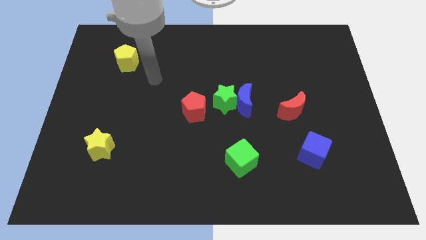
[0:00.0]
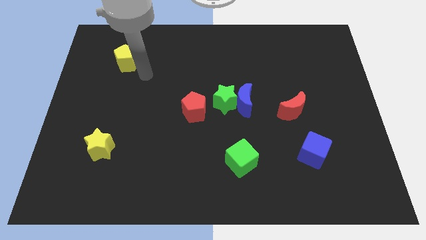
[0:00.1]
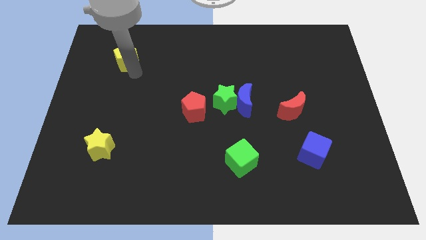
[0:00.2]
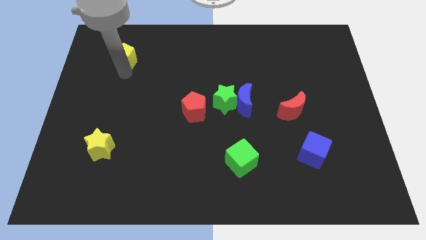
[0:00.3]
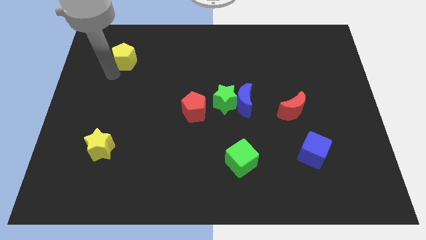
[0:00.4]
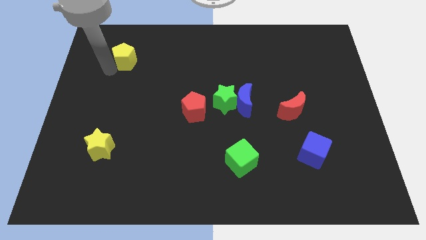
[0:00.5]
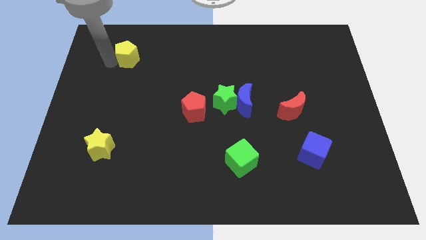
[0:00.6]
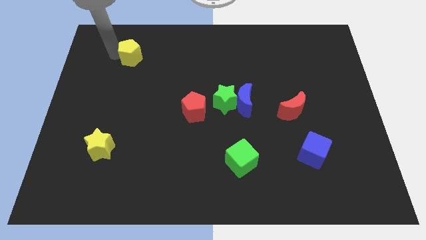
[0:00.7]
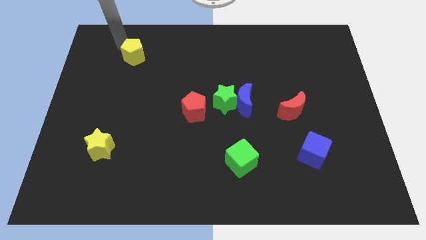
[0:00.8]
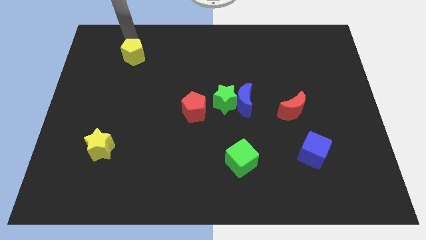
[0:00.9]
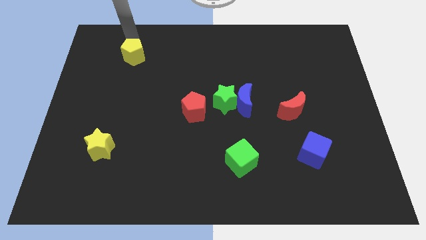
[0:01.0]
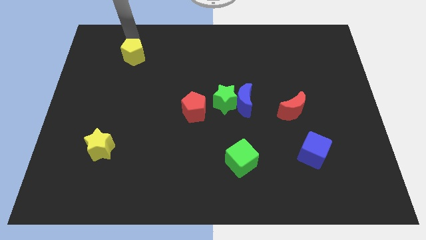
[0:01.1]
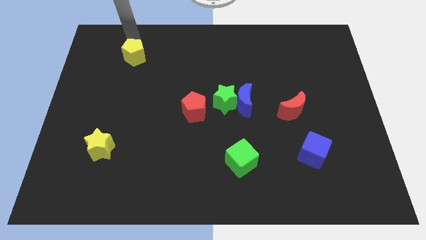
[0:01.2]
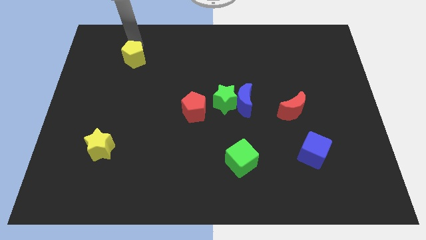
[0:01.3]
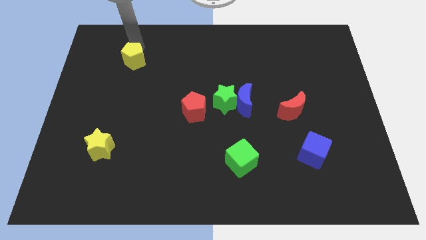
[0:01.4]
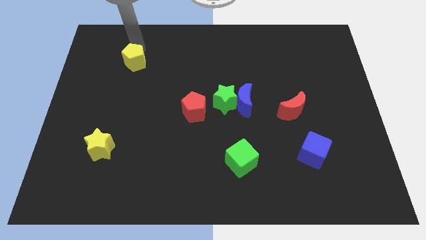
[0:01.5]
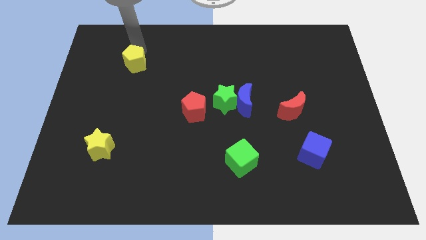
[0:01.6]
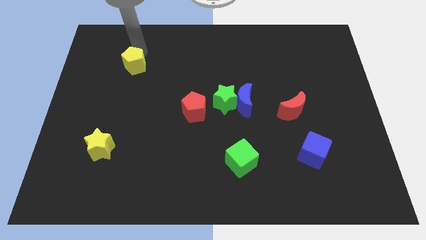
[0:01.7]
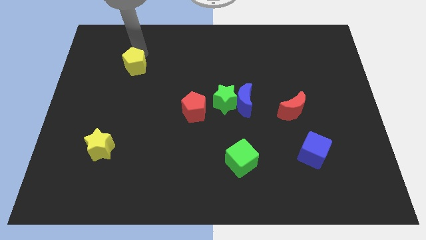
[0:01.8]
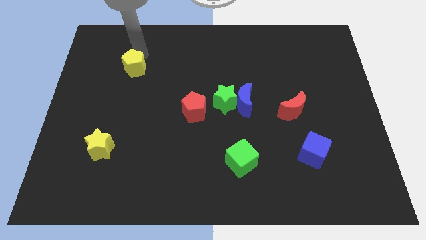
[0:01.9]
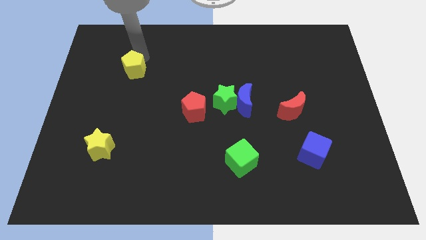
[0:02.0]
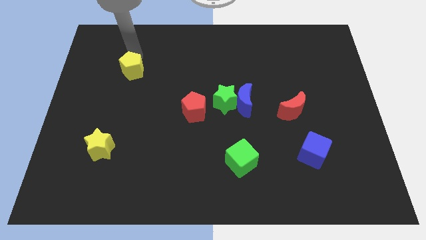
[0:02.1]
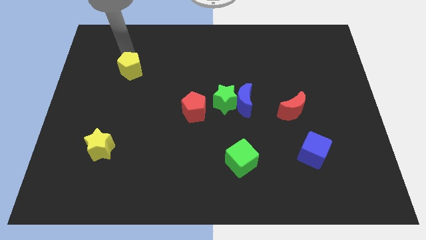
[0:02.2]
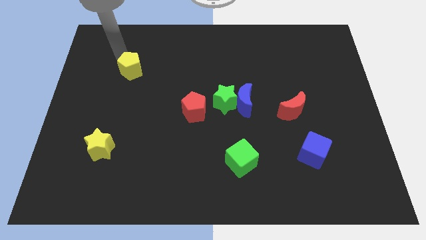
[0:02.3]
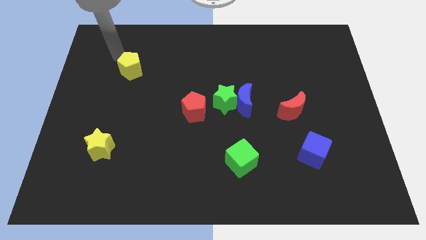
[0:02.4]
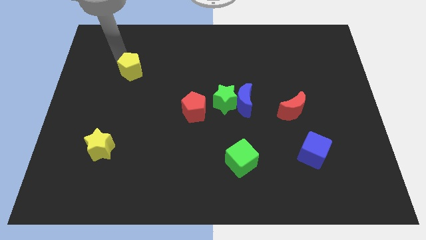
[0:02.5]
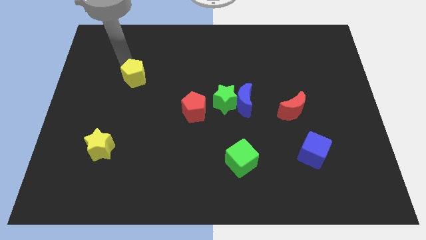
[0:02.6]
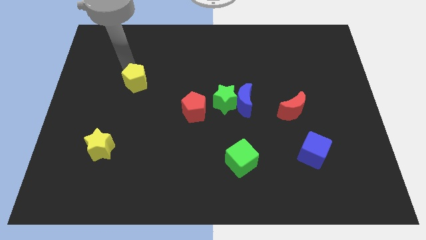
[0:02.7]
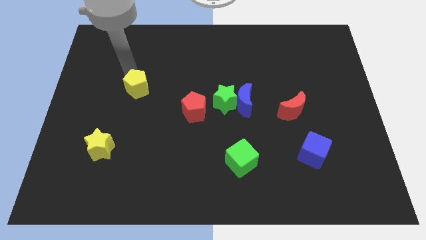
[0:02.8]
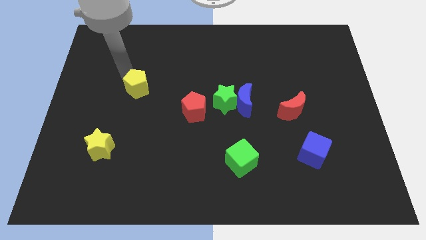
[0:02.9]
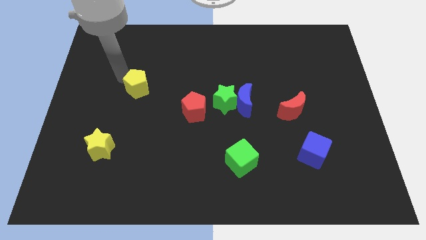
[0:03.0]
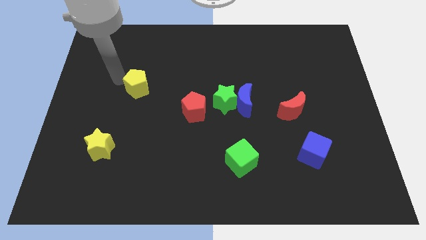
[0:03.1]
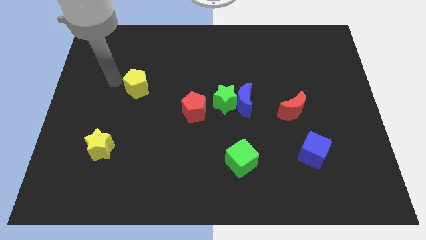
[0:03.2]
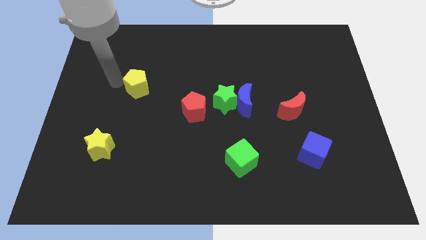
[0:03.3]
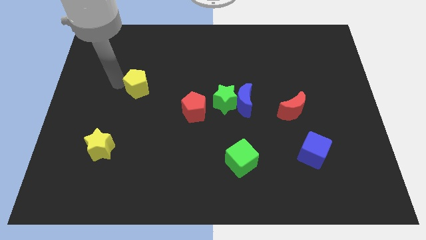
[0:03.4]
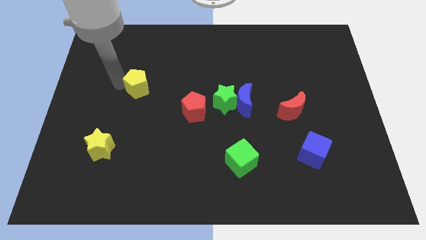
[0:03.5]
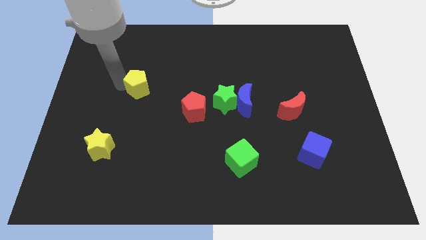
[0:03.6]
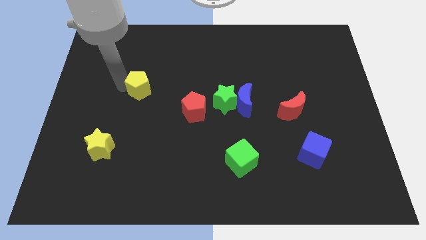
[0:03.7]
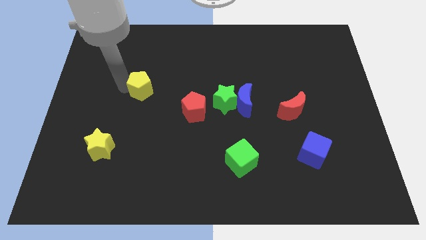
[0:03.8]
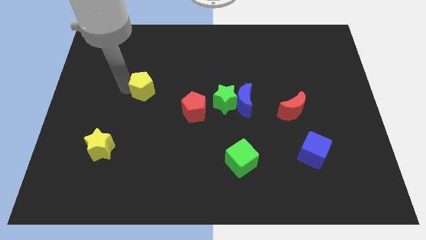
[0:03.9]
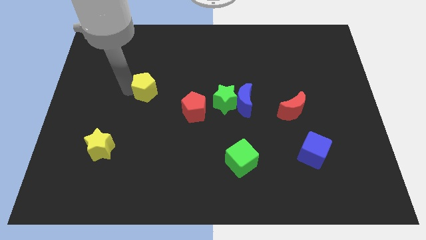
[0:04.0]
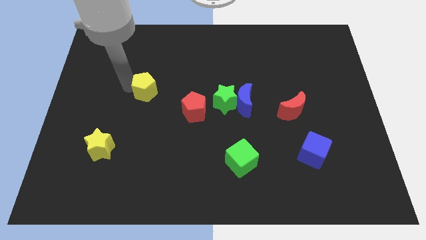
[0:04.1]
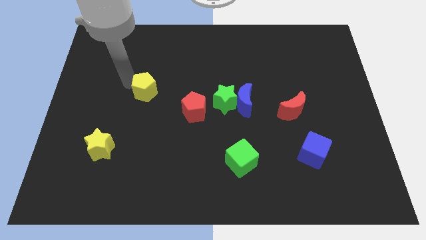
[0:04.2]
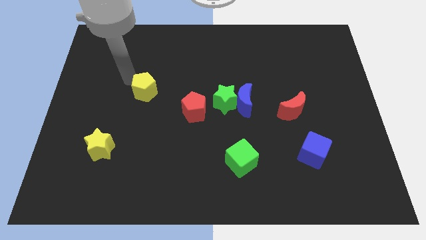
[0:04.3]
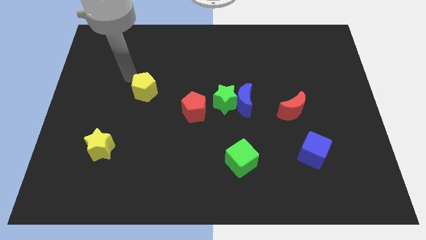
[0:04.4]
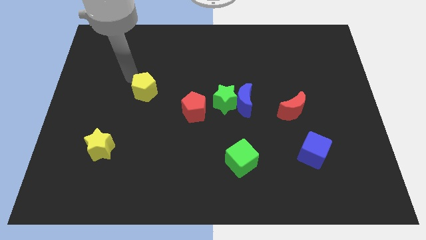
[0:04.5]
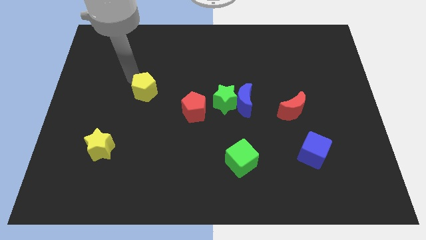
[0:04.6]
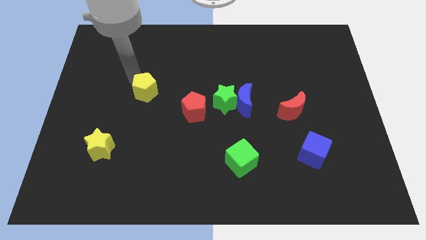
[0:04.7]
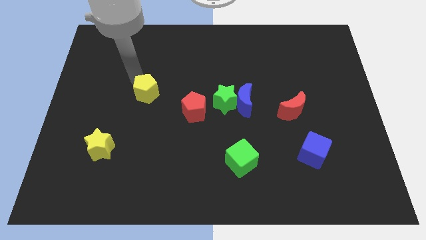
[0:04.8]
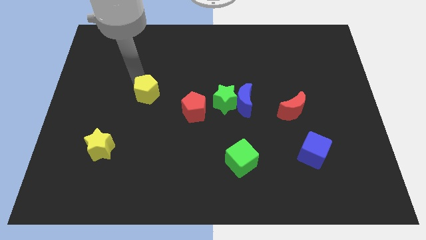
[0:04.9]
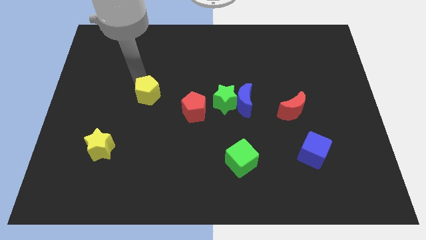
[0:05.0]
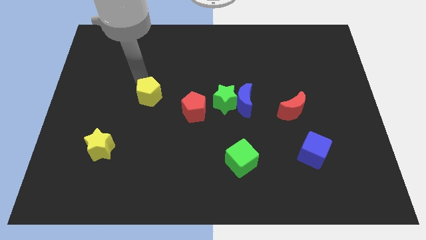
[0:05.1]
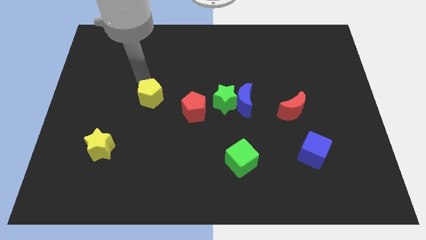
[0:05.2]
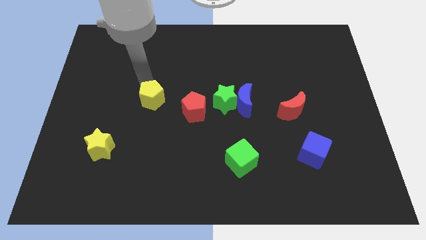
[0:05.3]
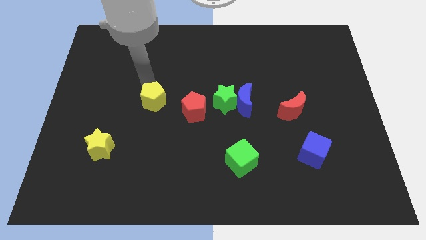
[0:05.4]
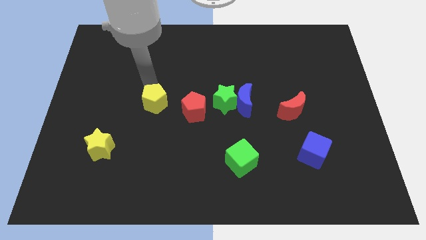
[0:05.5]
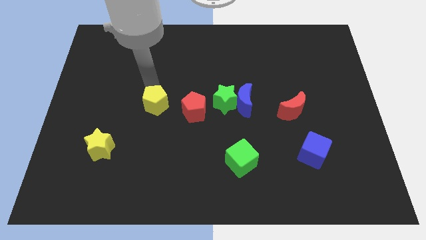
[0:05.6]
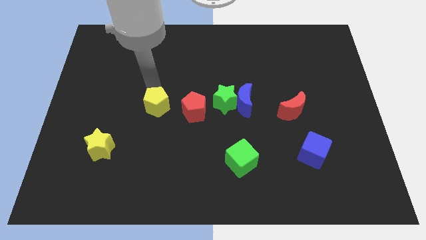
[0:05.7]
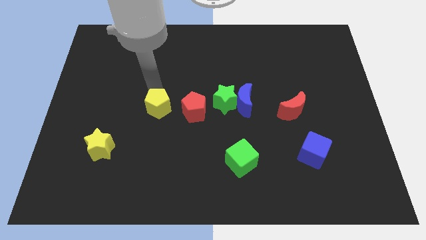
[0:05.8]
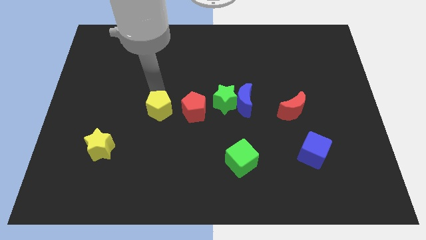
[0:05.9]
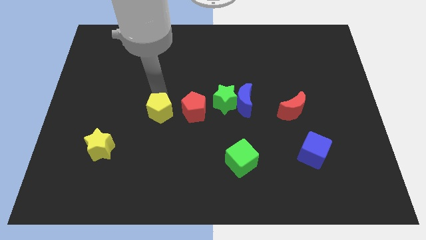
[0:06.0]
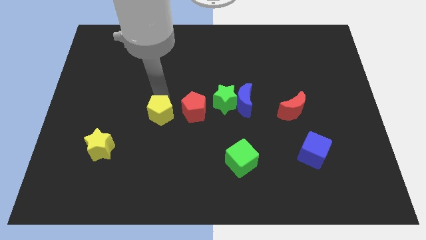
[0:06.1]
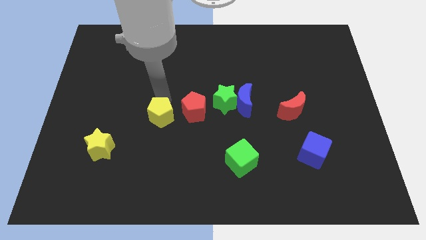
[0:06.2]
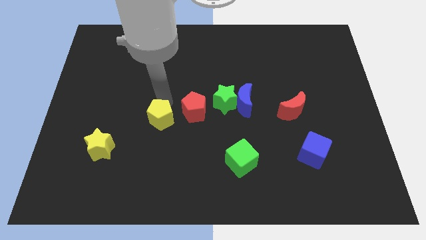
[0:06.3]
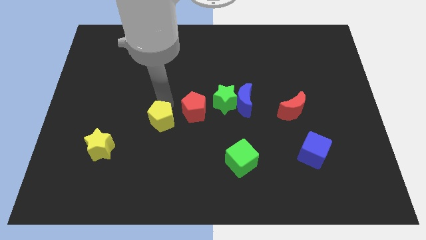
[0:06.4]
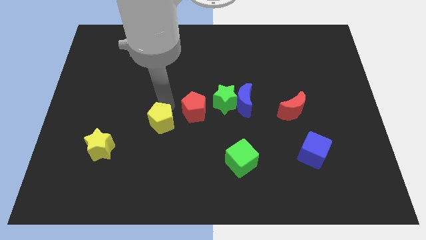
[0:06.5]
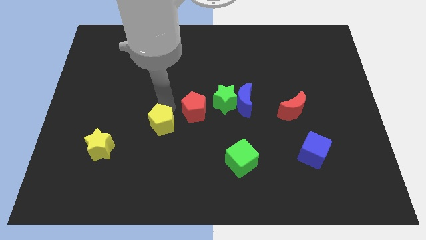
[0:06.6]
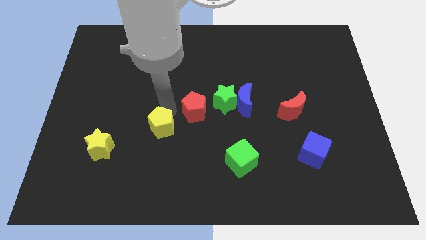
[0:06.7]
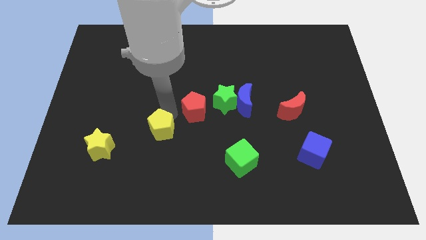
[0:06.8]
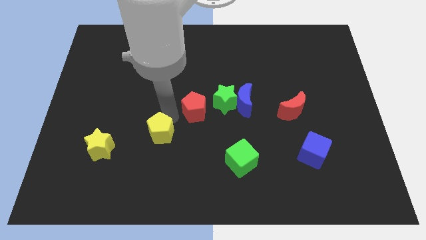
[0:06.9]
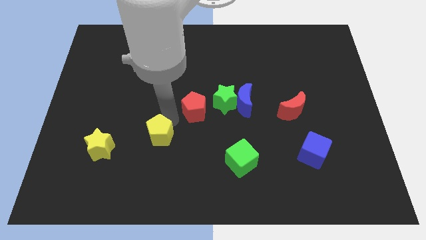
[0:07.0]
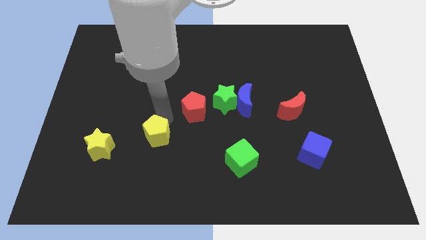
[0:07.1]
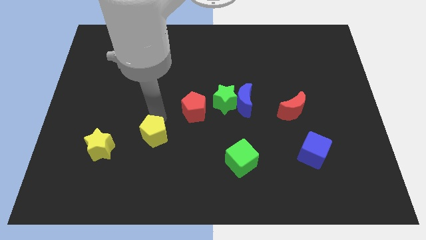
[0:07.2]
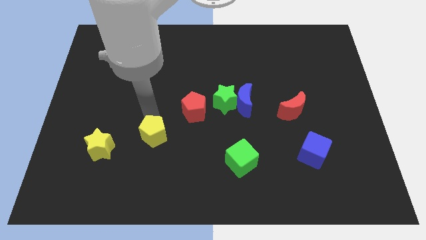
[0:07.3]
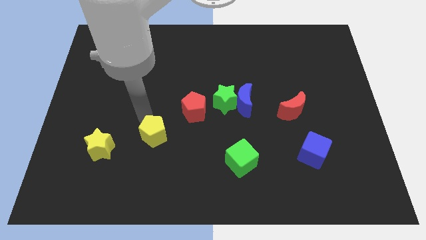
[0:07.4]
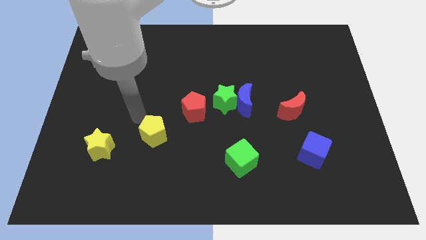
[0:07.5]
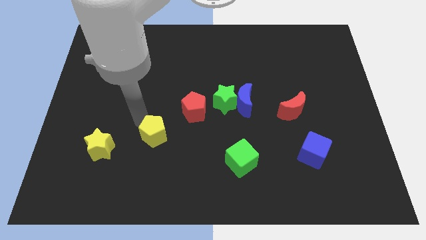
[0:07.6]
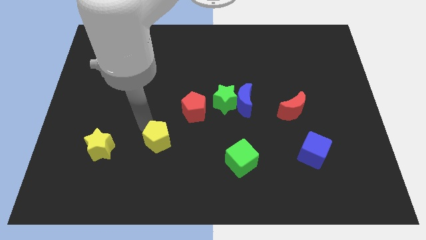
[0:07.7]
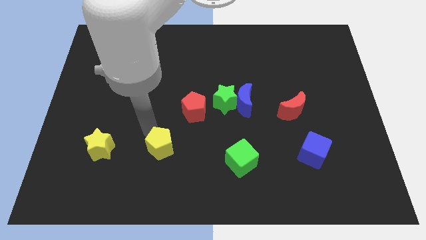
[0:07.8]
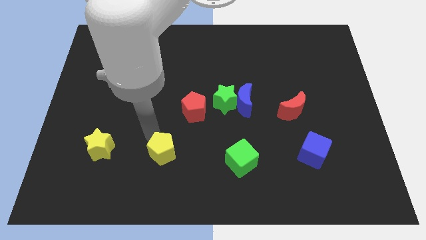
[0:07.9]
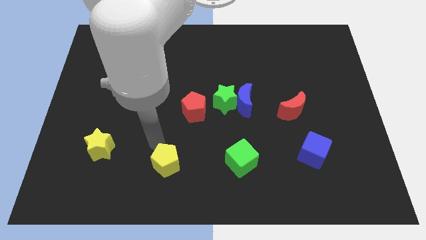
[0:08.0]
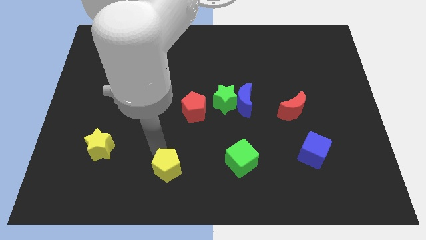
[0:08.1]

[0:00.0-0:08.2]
move the yellow pentagon to the bottom side
